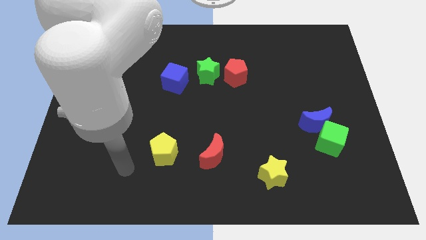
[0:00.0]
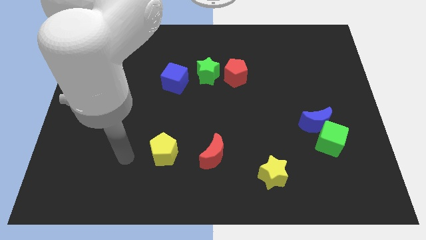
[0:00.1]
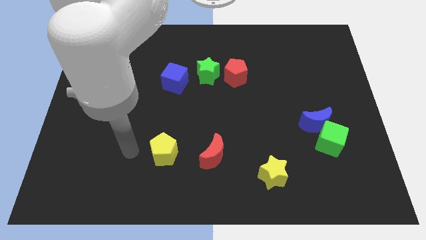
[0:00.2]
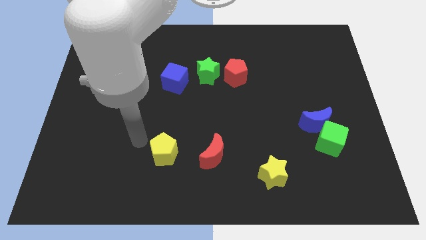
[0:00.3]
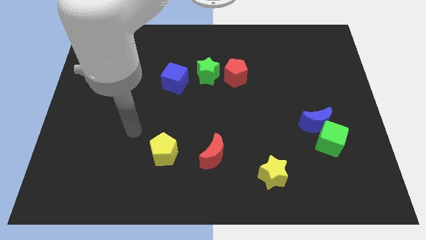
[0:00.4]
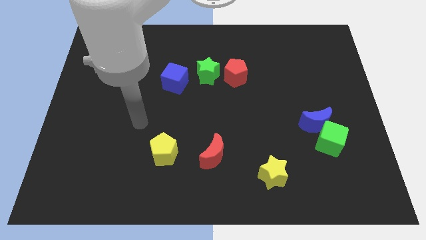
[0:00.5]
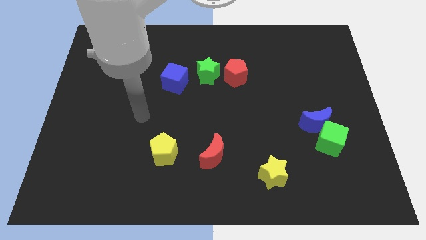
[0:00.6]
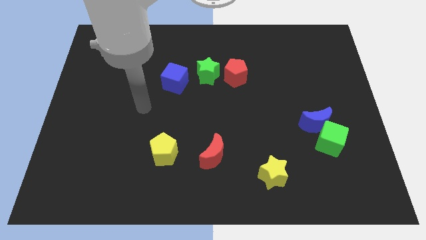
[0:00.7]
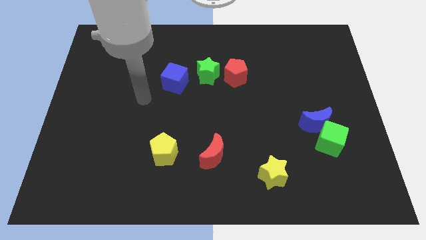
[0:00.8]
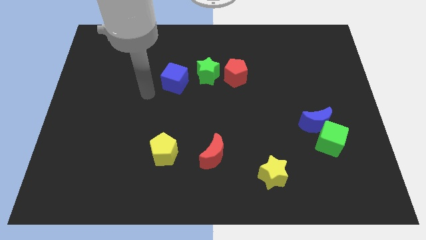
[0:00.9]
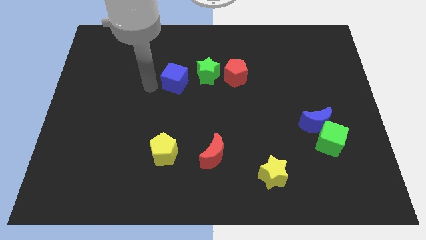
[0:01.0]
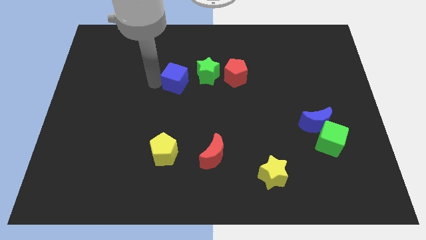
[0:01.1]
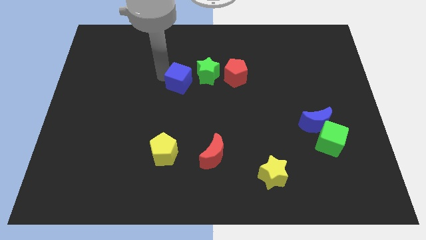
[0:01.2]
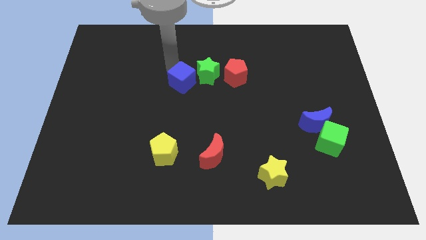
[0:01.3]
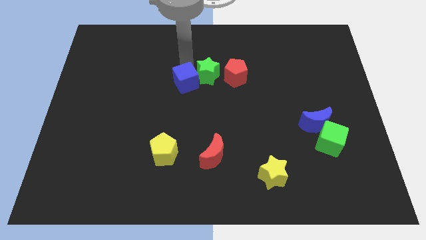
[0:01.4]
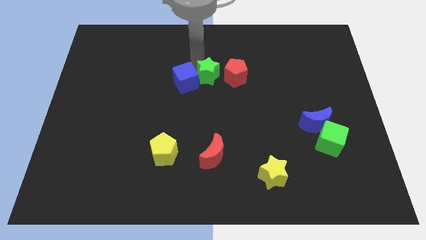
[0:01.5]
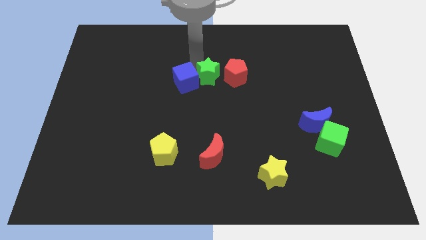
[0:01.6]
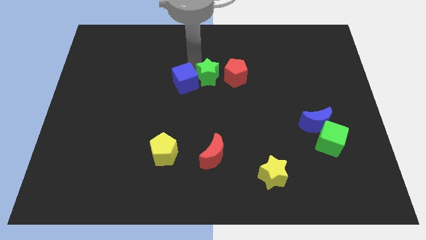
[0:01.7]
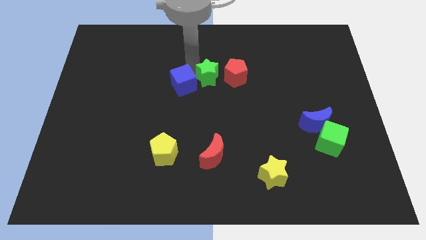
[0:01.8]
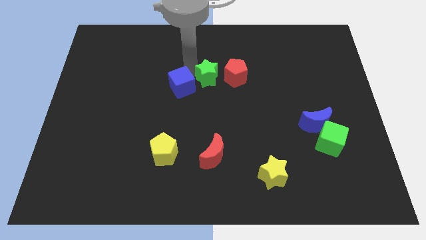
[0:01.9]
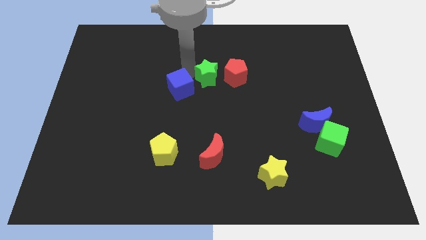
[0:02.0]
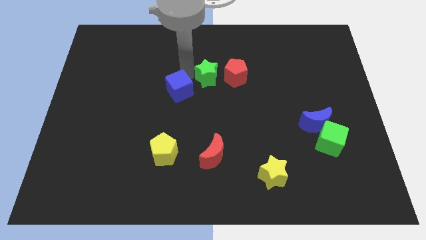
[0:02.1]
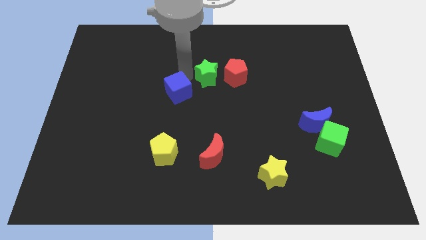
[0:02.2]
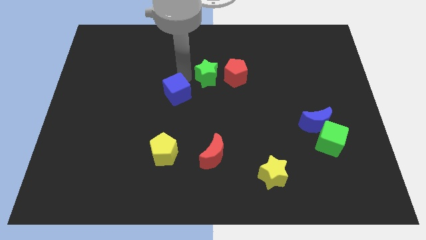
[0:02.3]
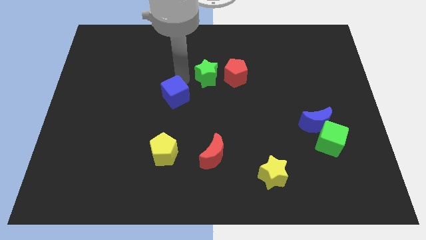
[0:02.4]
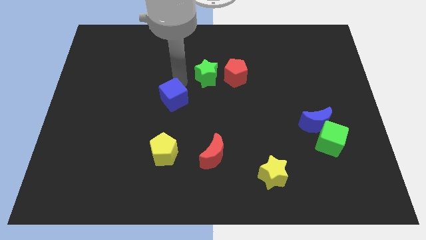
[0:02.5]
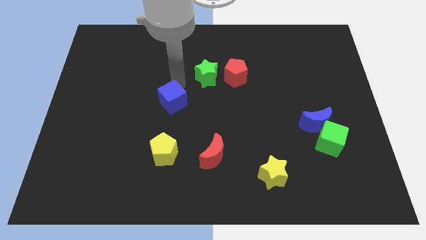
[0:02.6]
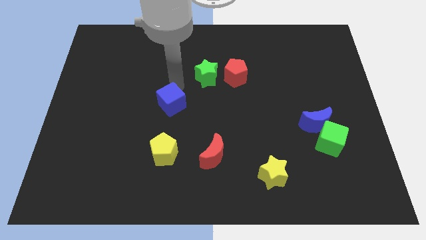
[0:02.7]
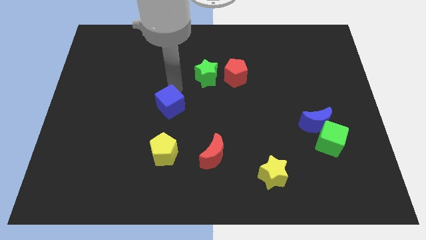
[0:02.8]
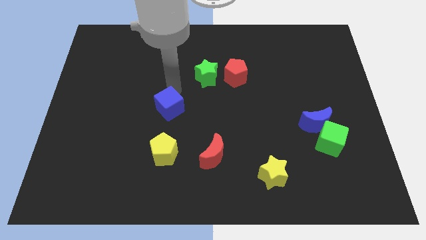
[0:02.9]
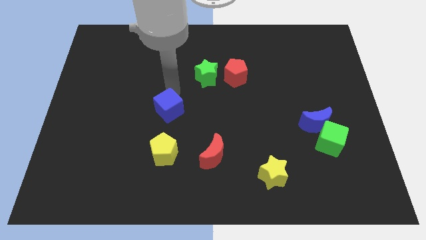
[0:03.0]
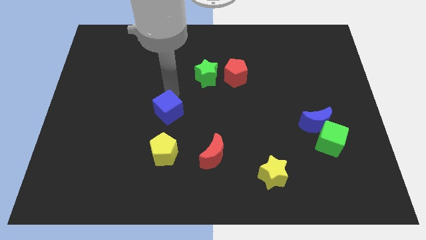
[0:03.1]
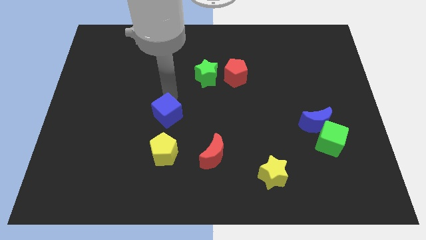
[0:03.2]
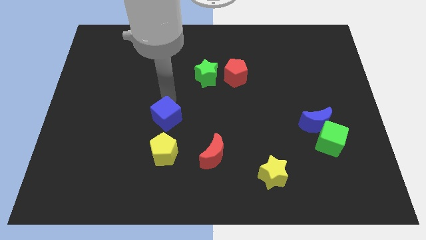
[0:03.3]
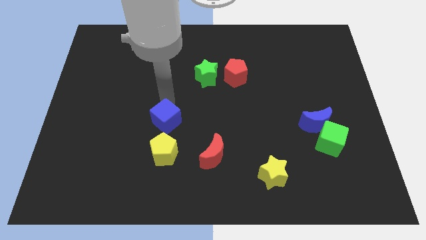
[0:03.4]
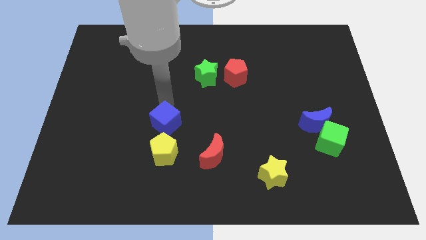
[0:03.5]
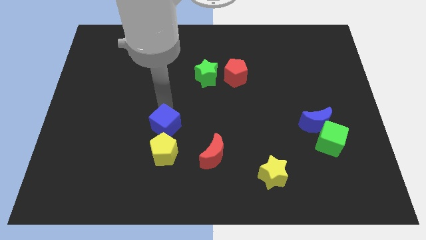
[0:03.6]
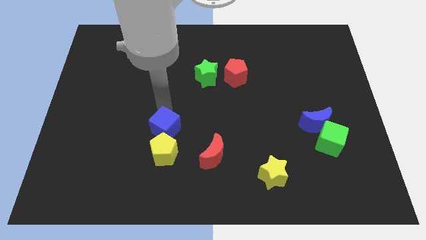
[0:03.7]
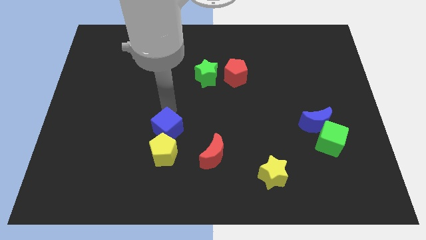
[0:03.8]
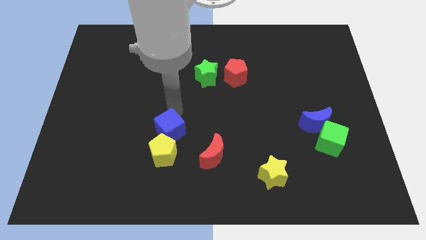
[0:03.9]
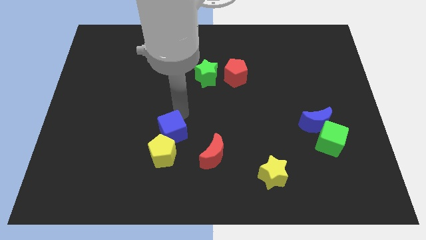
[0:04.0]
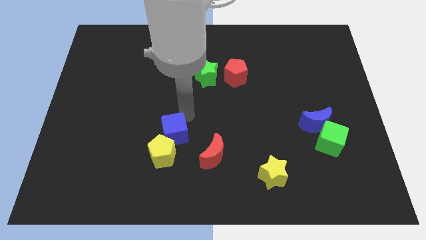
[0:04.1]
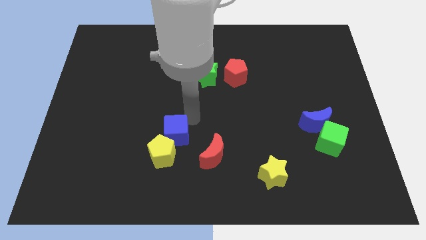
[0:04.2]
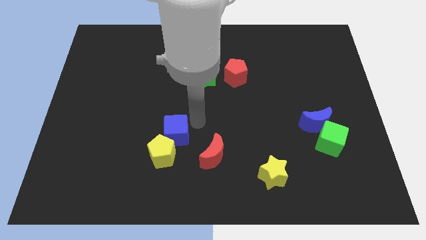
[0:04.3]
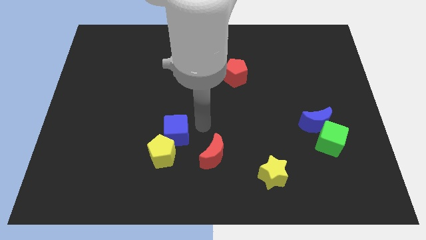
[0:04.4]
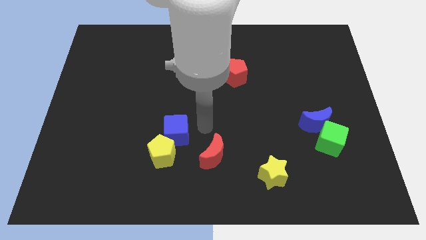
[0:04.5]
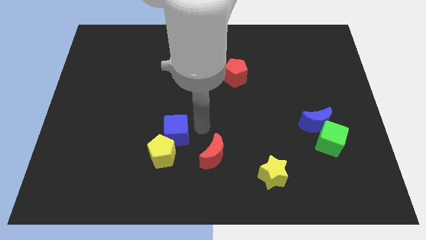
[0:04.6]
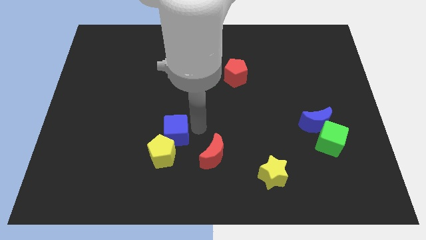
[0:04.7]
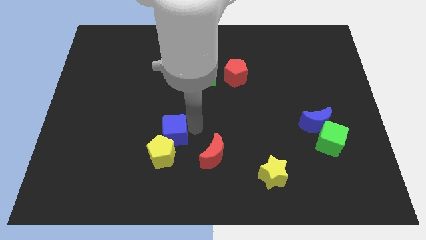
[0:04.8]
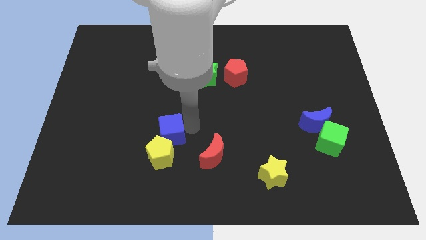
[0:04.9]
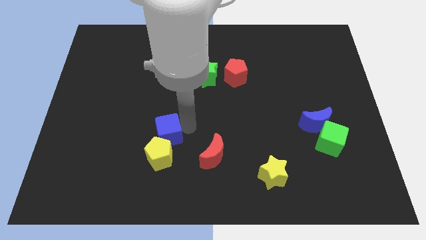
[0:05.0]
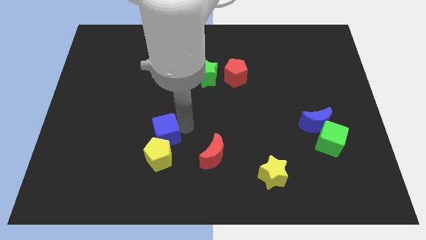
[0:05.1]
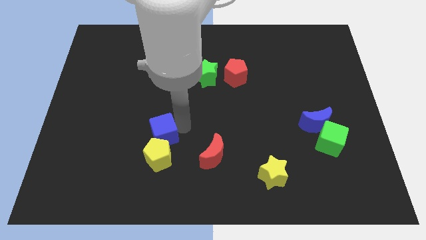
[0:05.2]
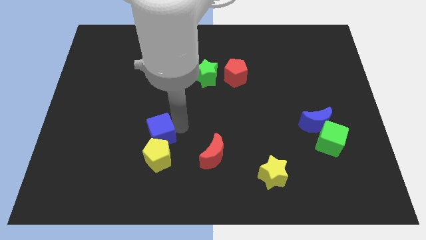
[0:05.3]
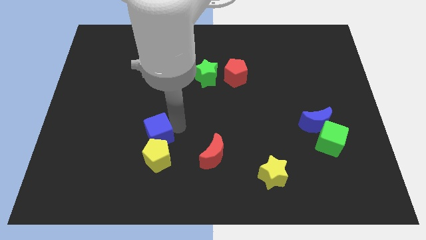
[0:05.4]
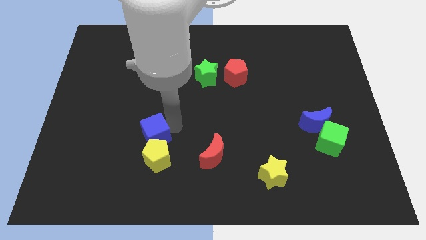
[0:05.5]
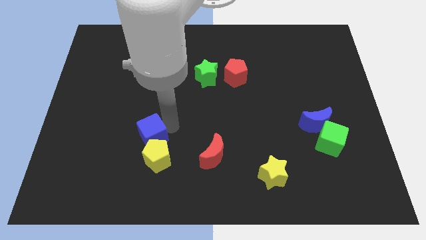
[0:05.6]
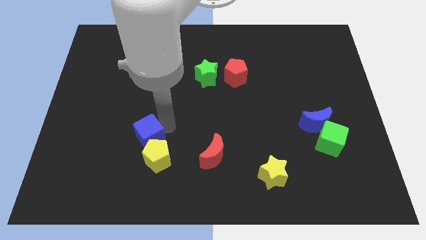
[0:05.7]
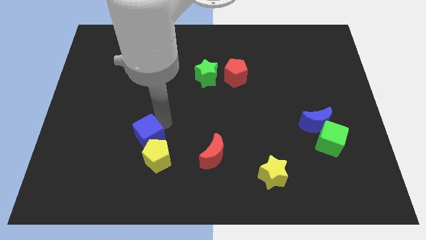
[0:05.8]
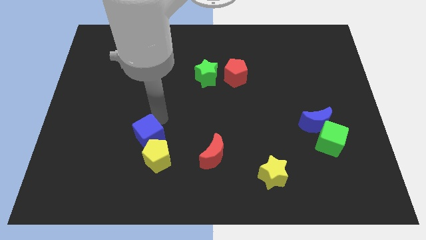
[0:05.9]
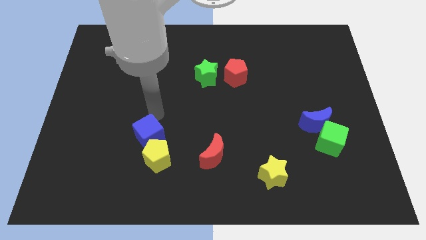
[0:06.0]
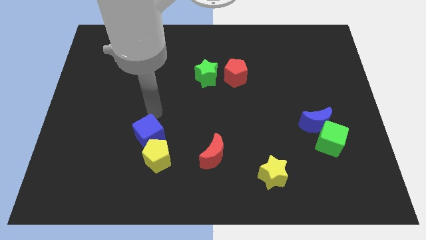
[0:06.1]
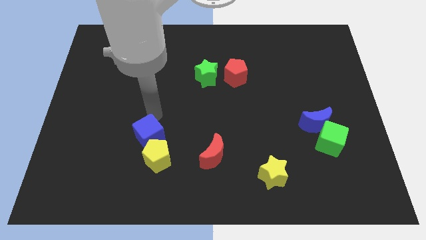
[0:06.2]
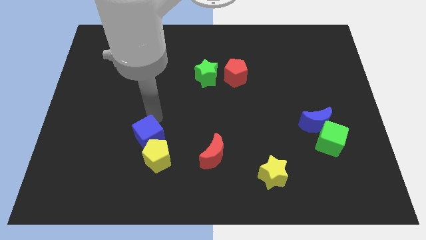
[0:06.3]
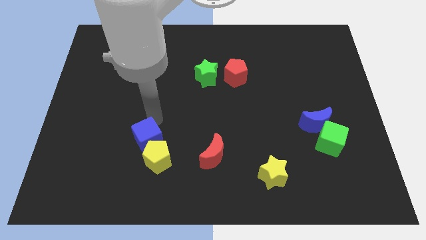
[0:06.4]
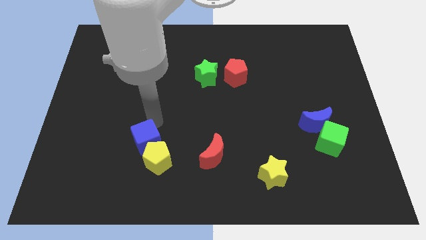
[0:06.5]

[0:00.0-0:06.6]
move the blue cube to the left side of the red moon

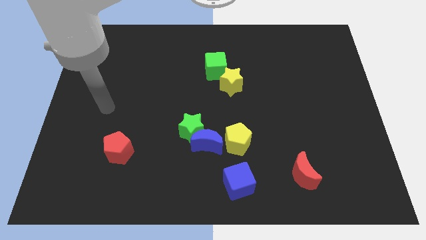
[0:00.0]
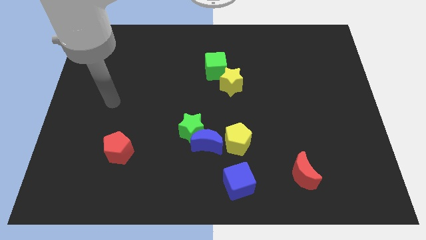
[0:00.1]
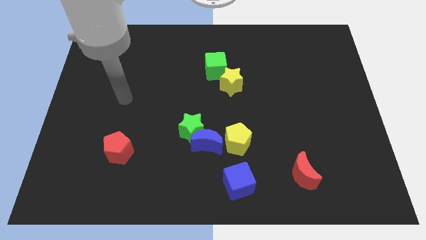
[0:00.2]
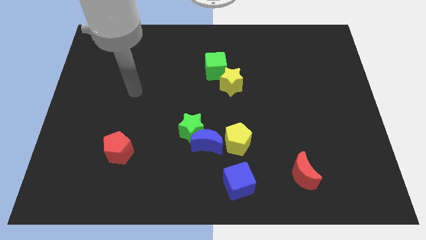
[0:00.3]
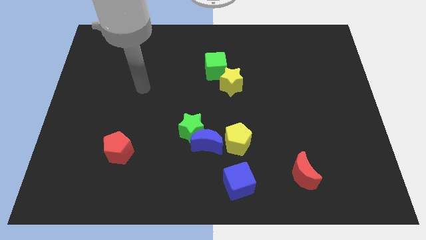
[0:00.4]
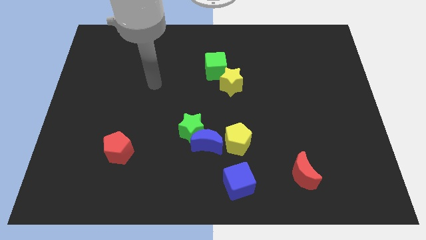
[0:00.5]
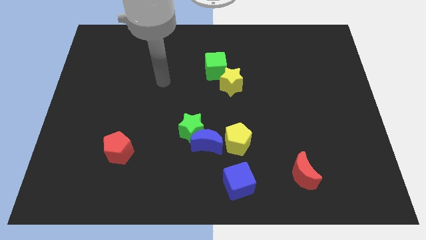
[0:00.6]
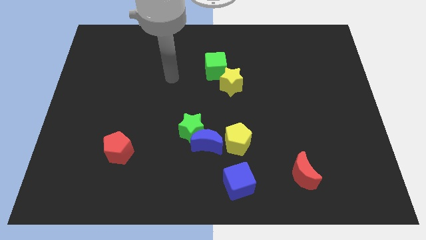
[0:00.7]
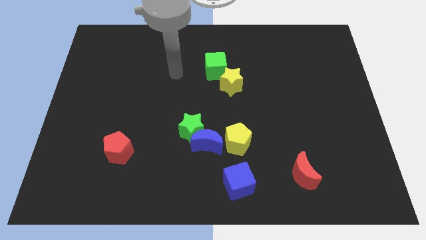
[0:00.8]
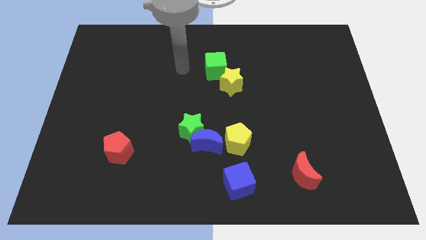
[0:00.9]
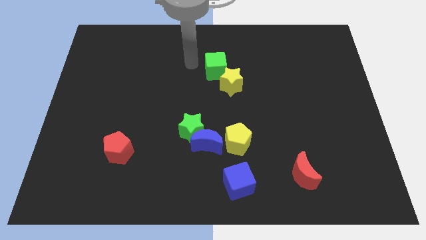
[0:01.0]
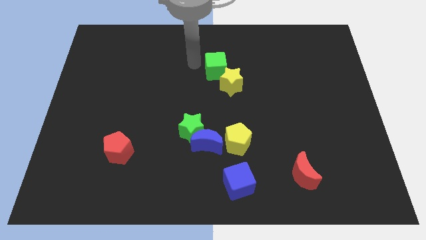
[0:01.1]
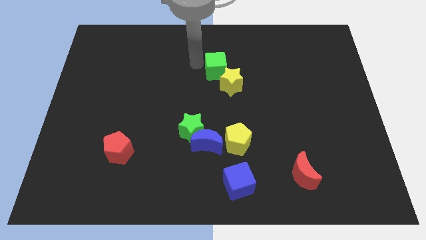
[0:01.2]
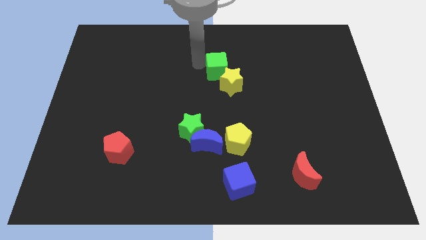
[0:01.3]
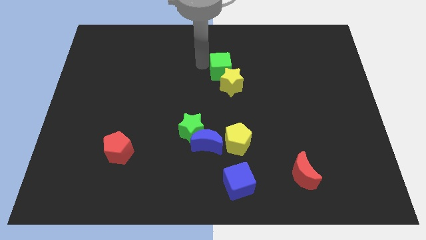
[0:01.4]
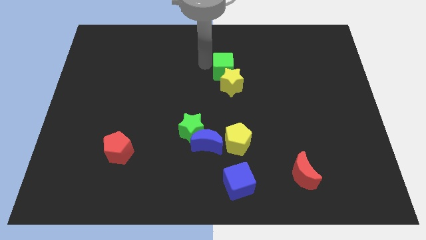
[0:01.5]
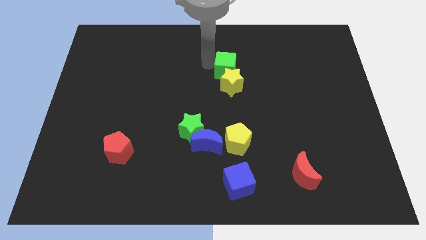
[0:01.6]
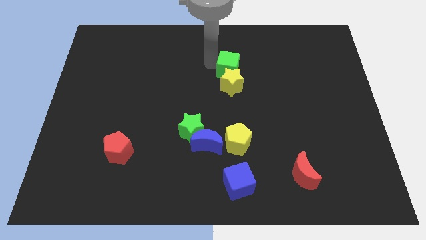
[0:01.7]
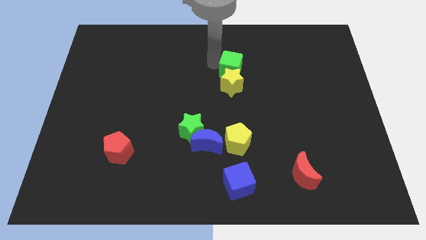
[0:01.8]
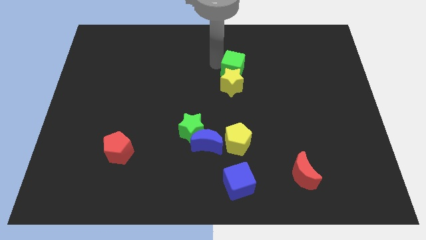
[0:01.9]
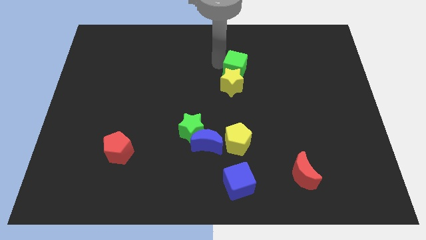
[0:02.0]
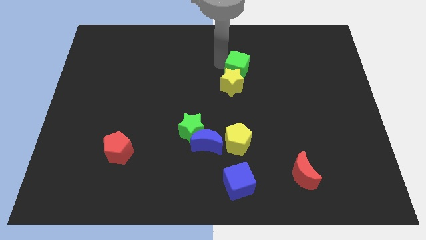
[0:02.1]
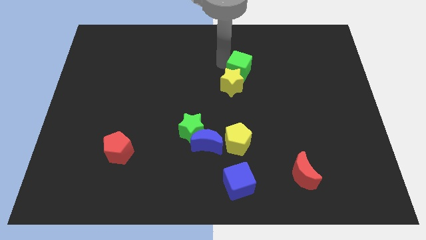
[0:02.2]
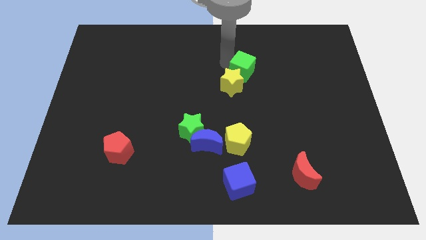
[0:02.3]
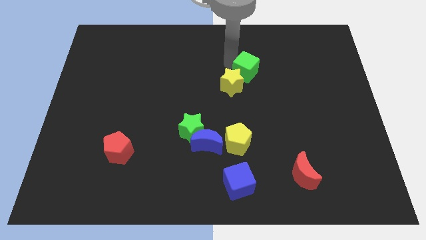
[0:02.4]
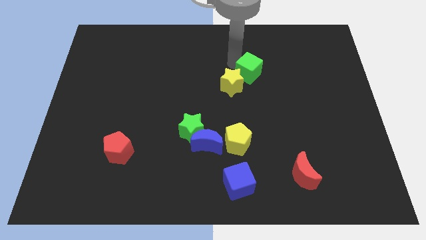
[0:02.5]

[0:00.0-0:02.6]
push the green cube right of the yellow star
